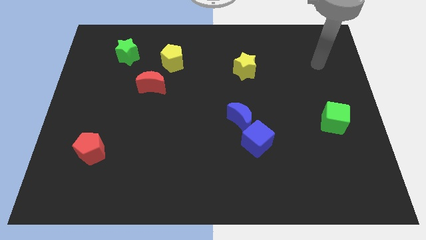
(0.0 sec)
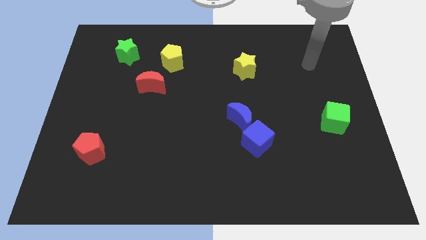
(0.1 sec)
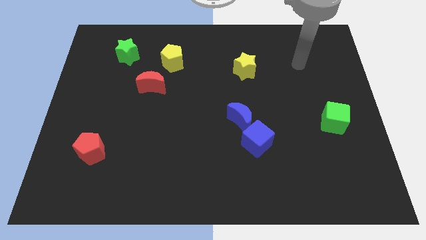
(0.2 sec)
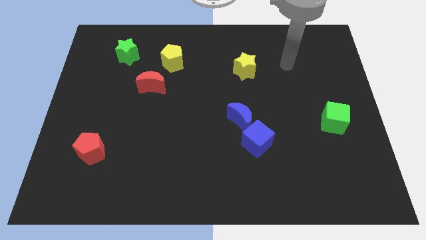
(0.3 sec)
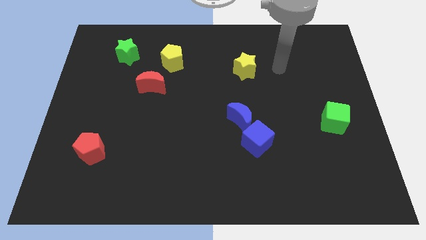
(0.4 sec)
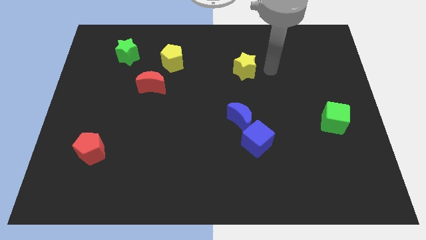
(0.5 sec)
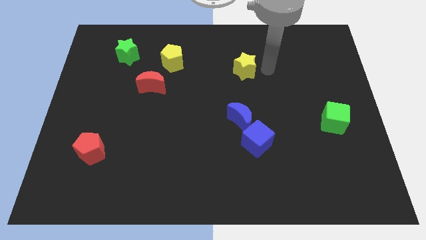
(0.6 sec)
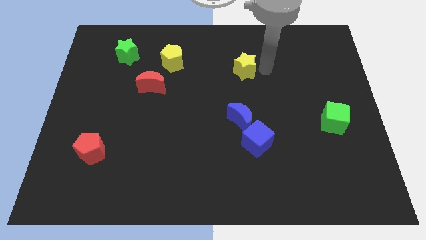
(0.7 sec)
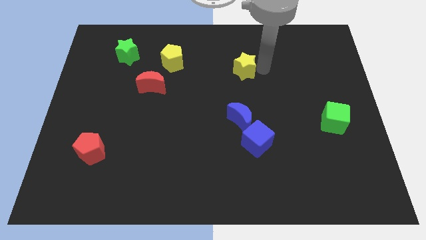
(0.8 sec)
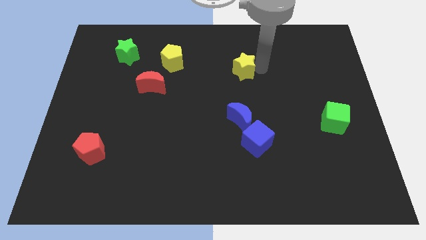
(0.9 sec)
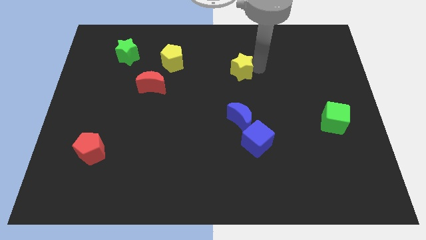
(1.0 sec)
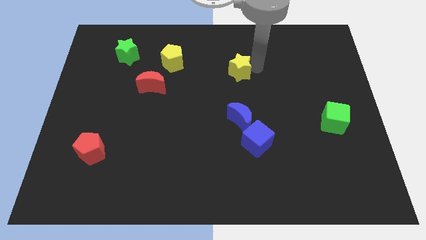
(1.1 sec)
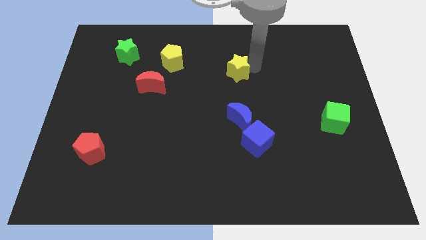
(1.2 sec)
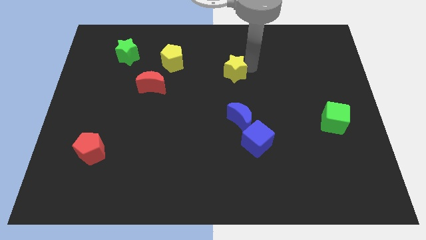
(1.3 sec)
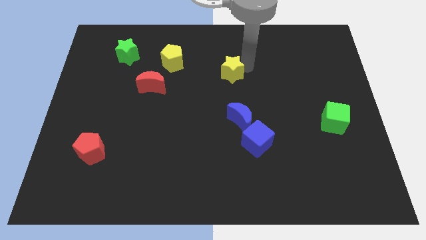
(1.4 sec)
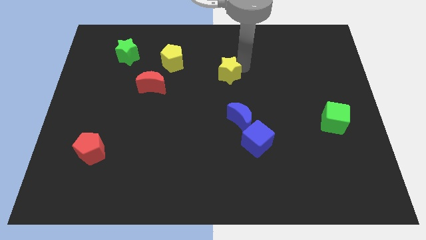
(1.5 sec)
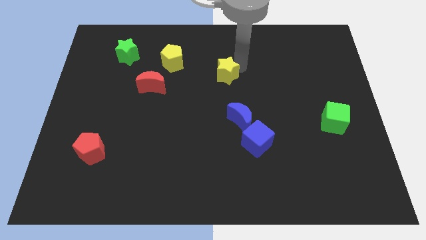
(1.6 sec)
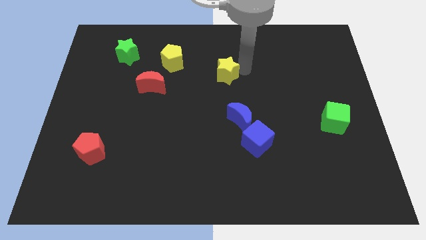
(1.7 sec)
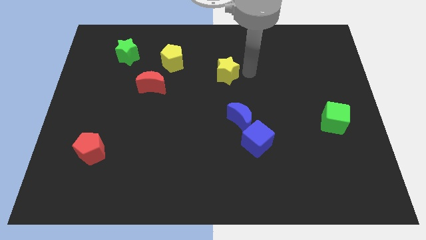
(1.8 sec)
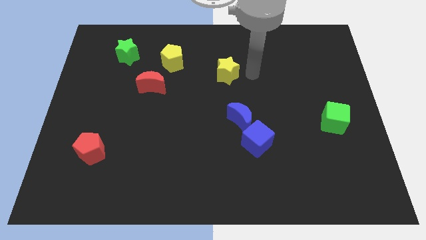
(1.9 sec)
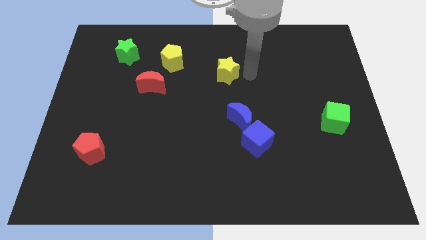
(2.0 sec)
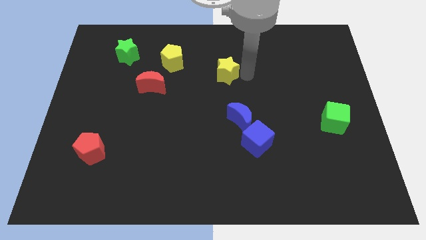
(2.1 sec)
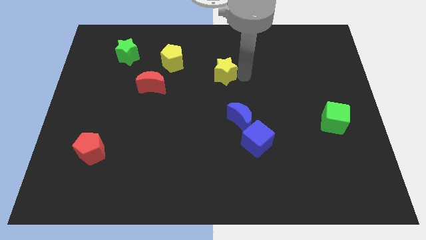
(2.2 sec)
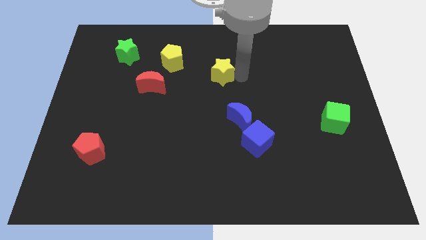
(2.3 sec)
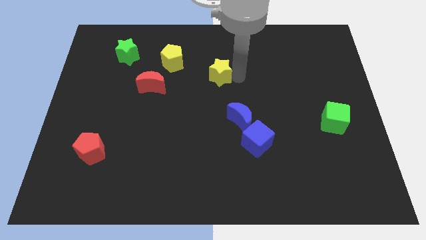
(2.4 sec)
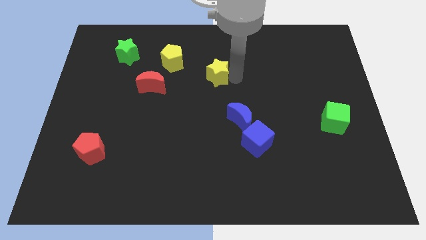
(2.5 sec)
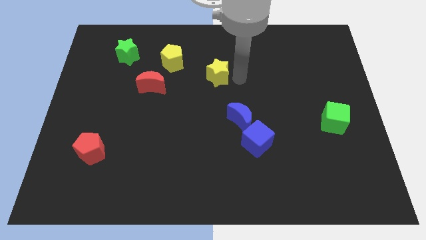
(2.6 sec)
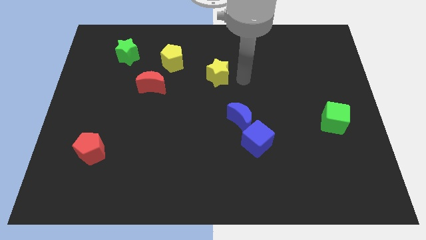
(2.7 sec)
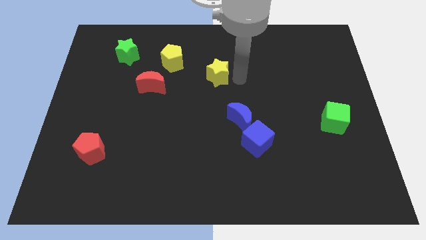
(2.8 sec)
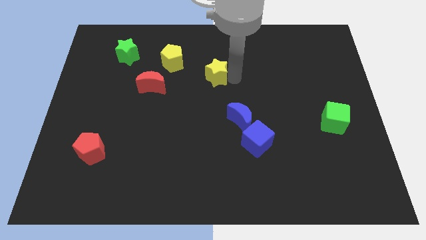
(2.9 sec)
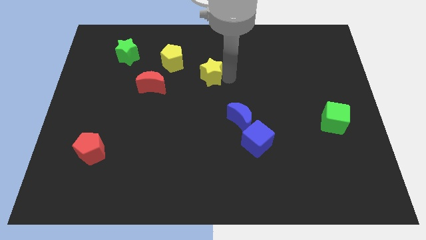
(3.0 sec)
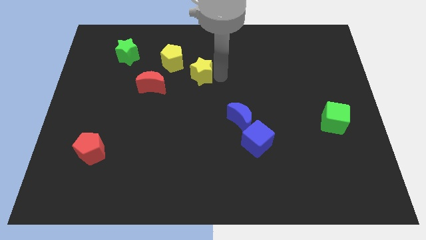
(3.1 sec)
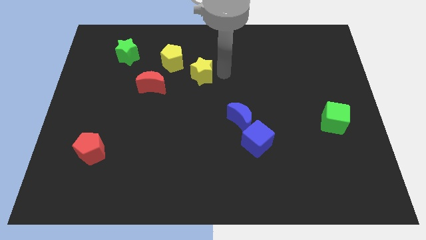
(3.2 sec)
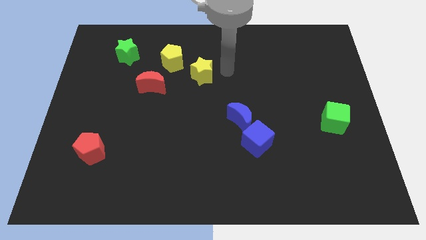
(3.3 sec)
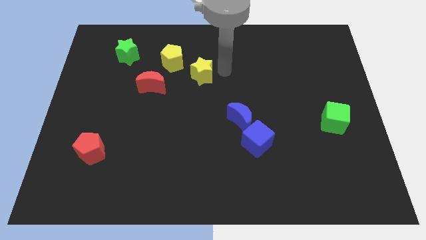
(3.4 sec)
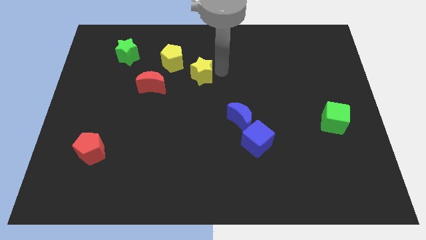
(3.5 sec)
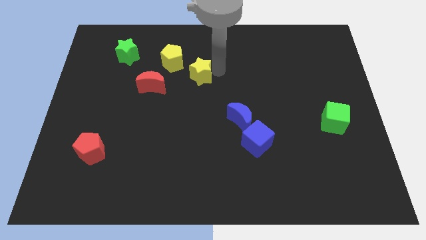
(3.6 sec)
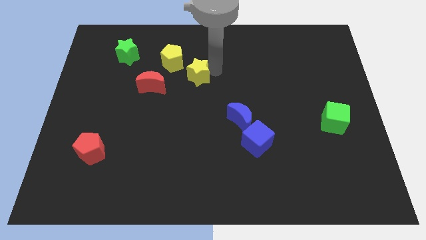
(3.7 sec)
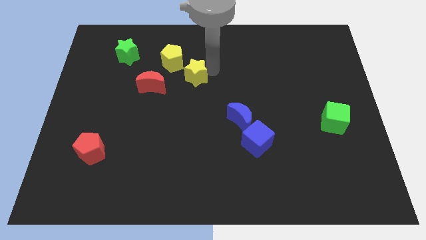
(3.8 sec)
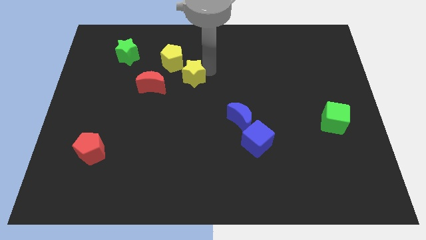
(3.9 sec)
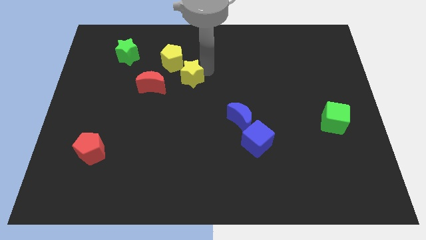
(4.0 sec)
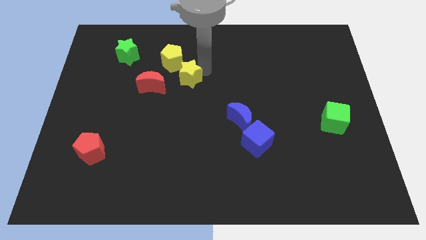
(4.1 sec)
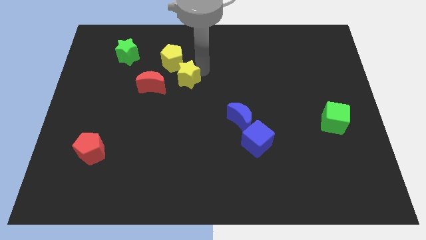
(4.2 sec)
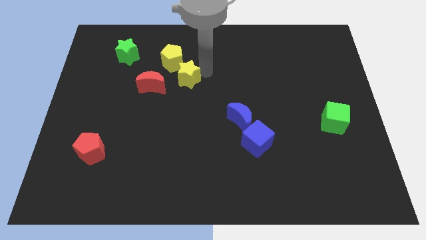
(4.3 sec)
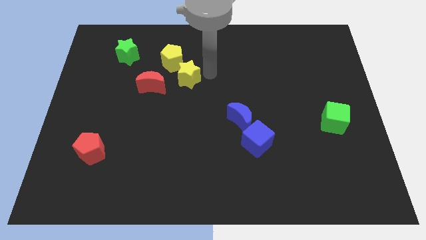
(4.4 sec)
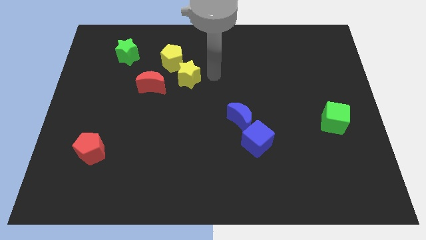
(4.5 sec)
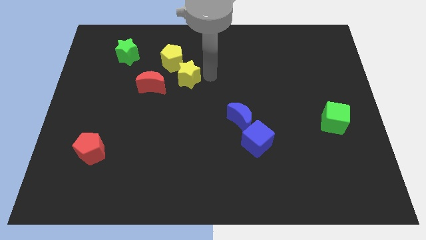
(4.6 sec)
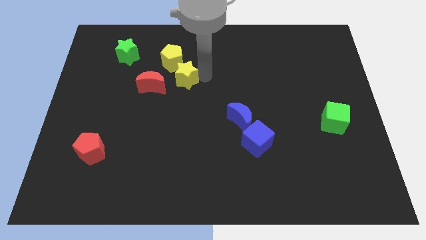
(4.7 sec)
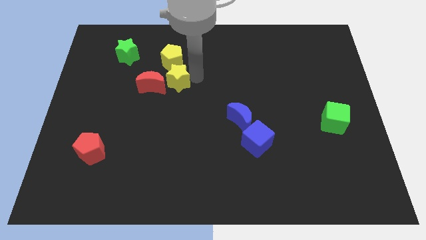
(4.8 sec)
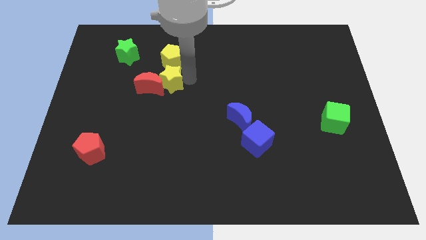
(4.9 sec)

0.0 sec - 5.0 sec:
put the yellow star close to the red moon

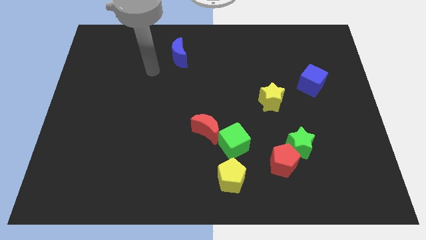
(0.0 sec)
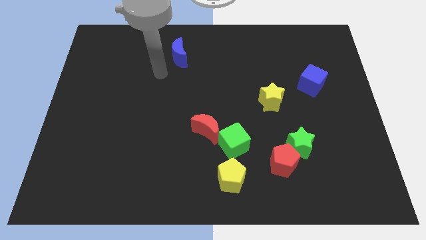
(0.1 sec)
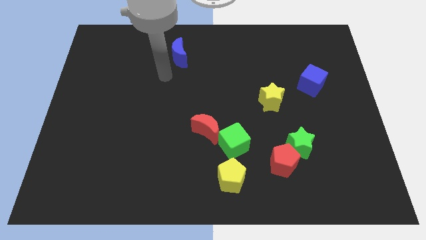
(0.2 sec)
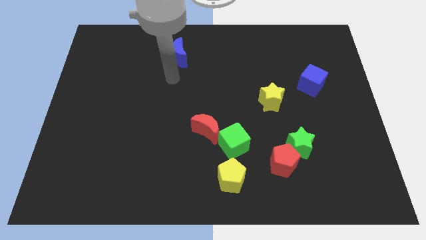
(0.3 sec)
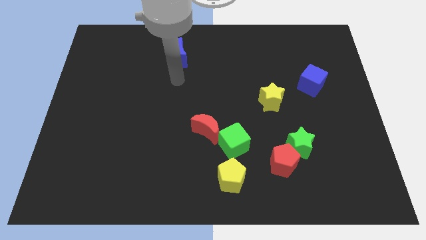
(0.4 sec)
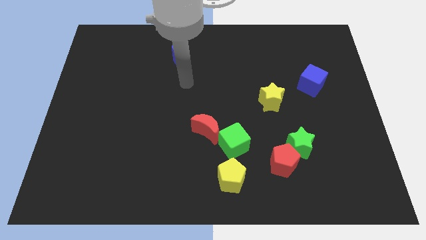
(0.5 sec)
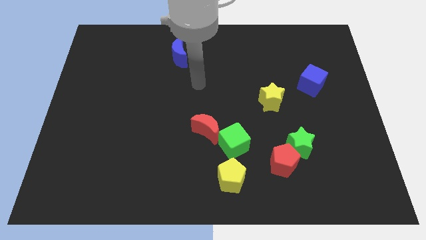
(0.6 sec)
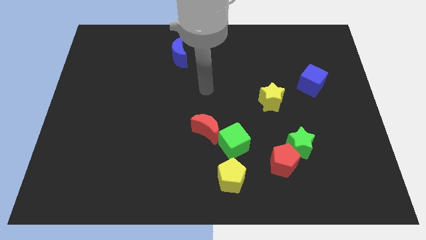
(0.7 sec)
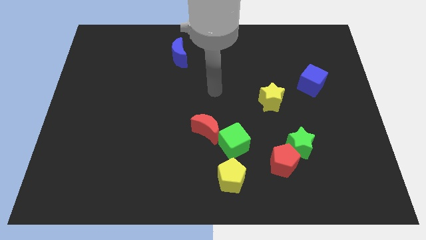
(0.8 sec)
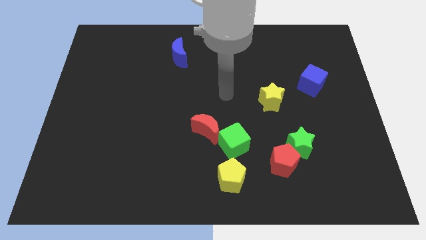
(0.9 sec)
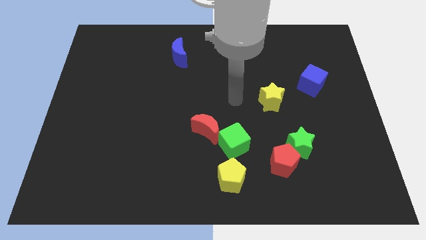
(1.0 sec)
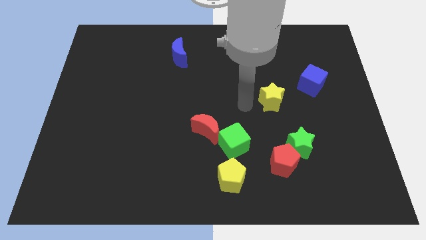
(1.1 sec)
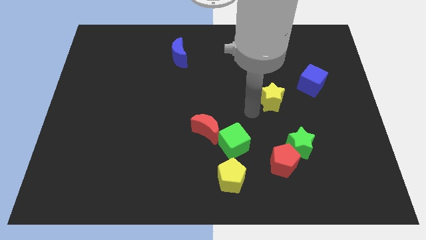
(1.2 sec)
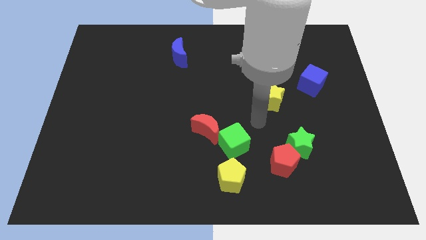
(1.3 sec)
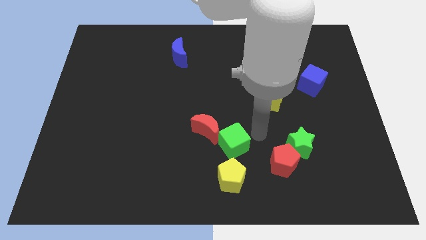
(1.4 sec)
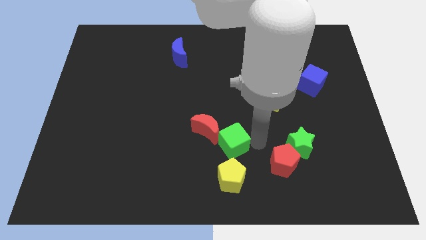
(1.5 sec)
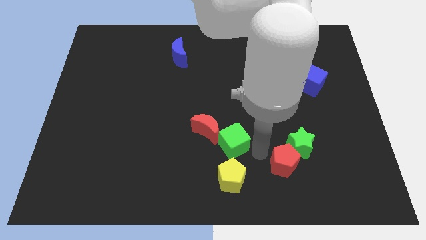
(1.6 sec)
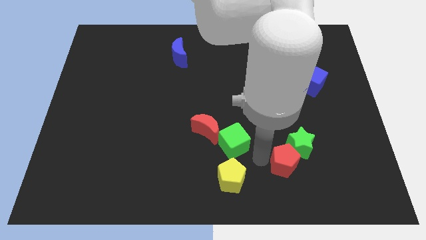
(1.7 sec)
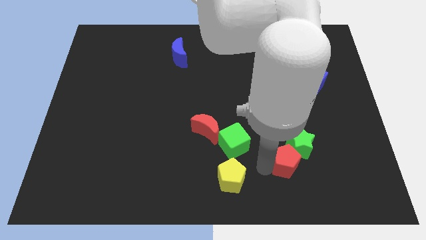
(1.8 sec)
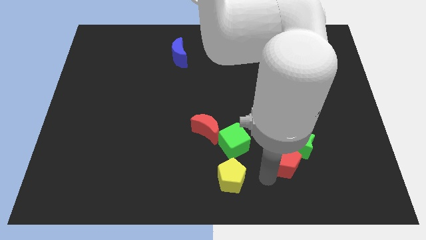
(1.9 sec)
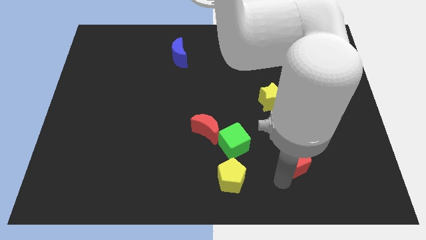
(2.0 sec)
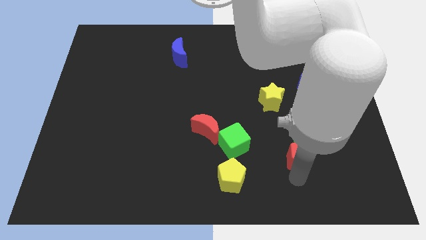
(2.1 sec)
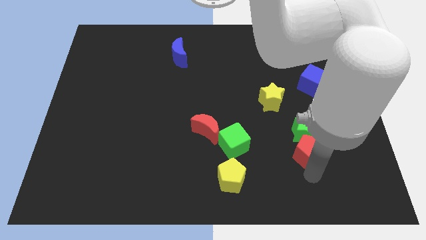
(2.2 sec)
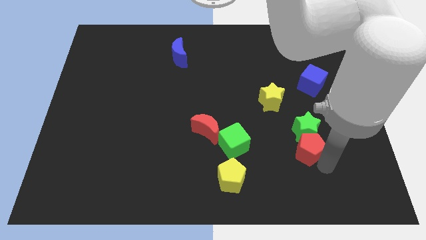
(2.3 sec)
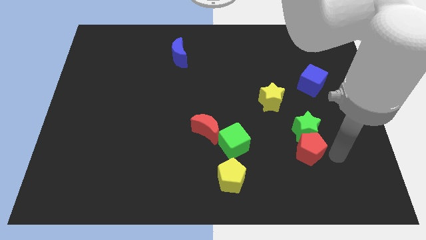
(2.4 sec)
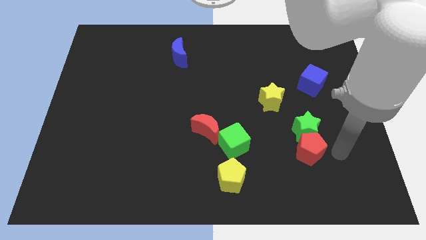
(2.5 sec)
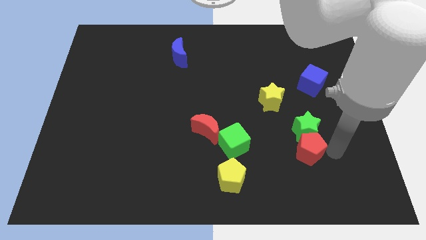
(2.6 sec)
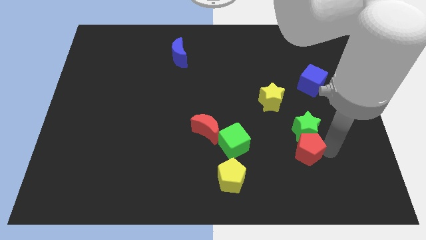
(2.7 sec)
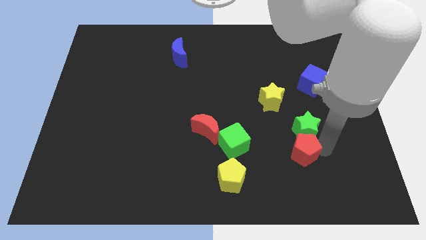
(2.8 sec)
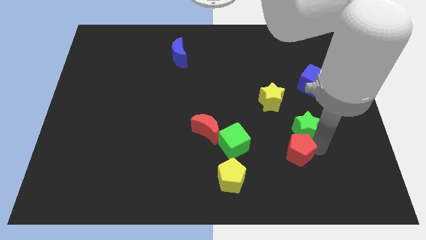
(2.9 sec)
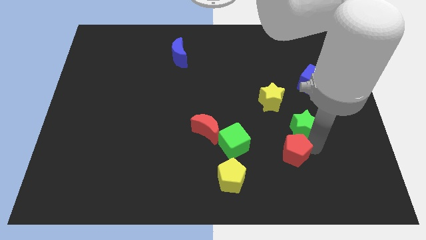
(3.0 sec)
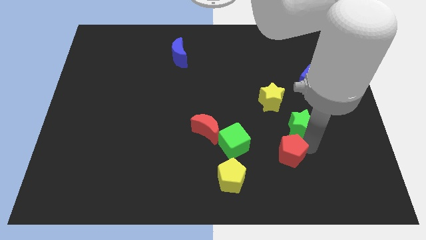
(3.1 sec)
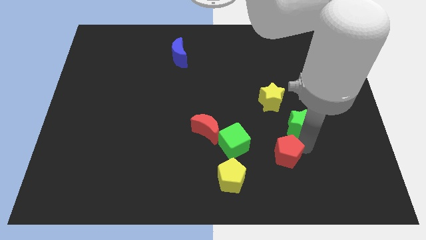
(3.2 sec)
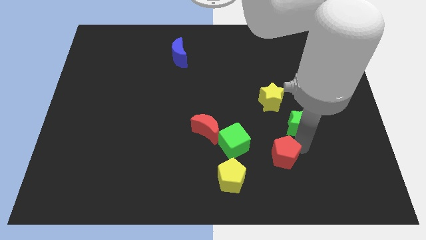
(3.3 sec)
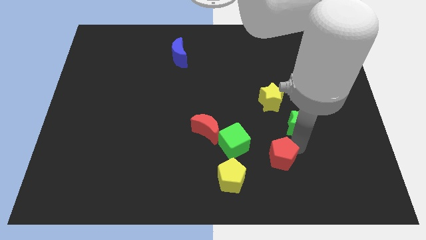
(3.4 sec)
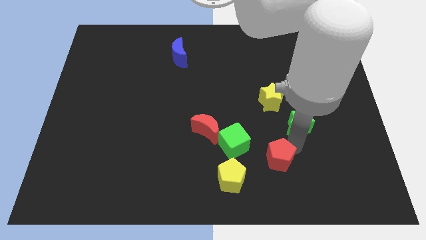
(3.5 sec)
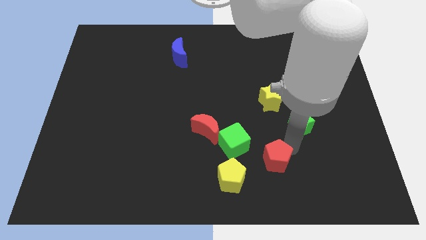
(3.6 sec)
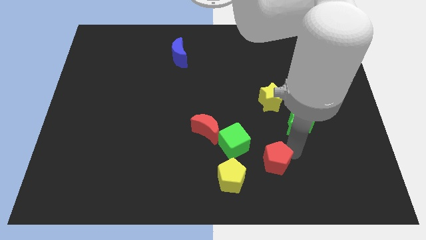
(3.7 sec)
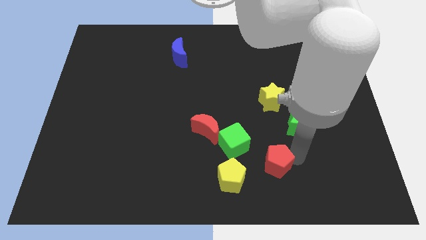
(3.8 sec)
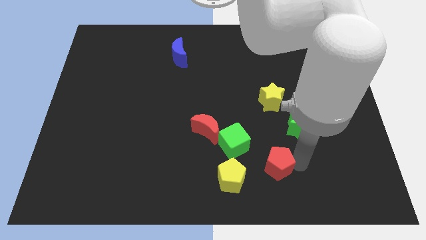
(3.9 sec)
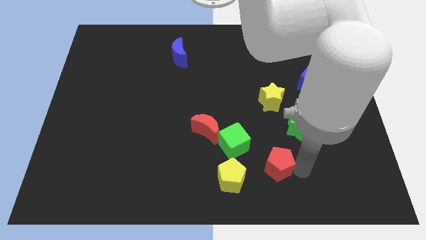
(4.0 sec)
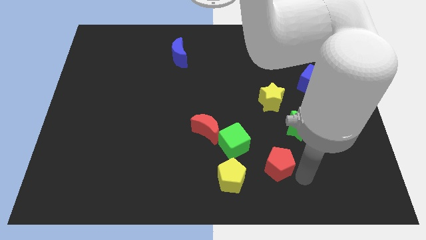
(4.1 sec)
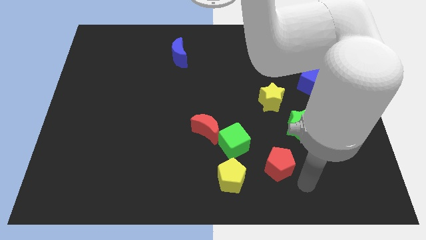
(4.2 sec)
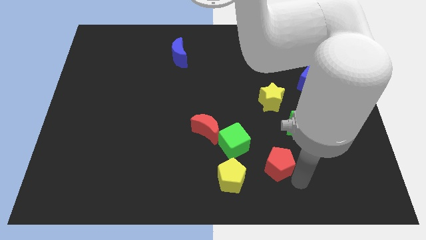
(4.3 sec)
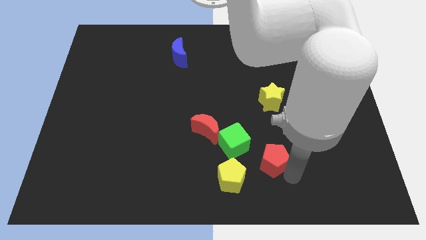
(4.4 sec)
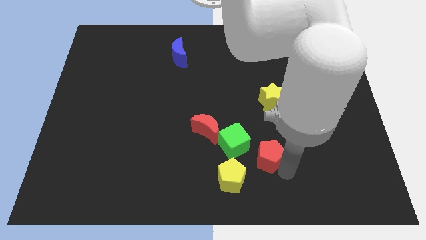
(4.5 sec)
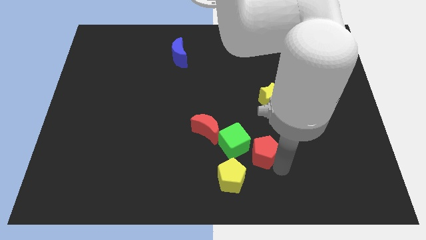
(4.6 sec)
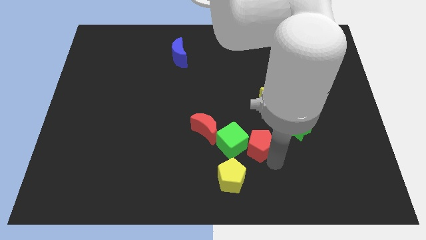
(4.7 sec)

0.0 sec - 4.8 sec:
push the red pentagon towards the green cube
